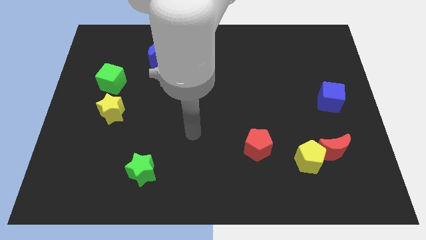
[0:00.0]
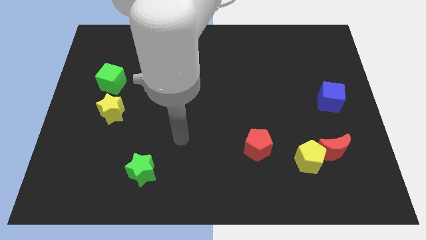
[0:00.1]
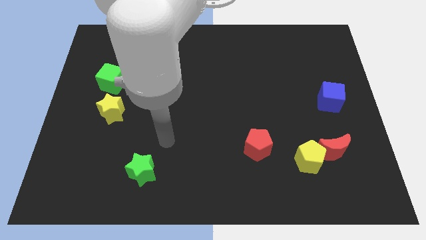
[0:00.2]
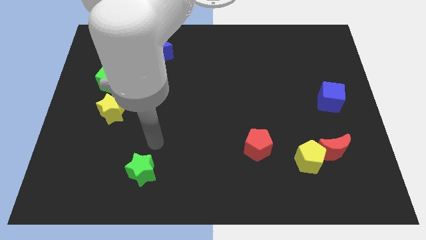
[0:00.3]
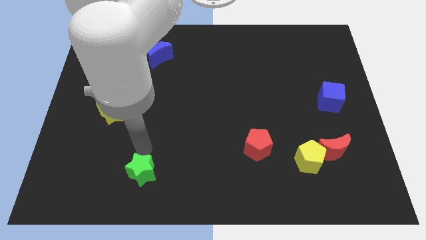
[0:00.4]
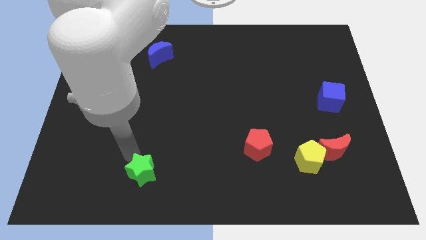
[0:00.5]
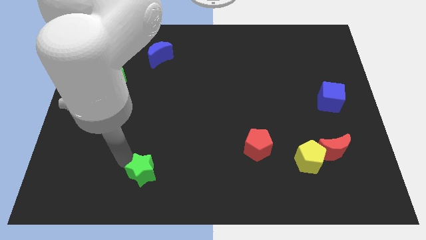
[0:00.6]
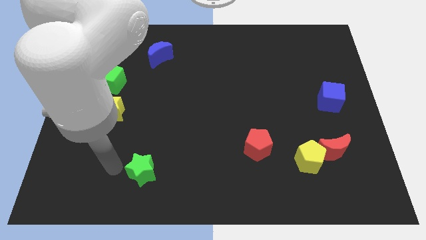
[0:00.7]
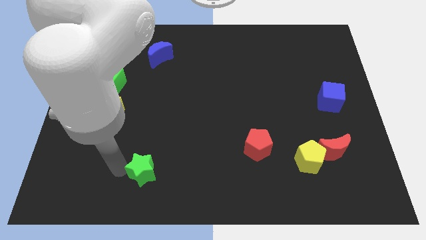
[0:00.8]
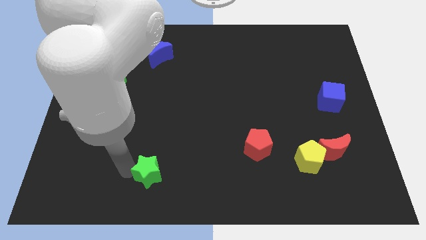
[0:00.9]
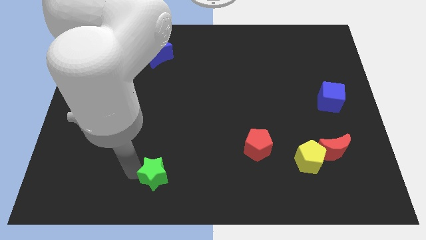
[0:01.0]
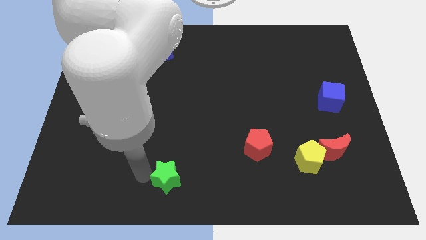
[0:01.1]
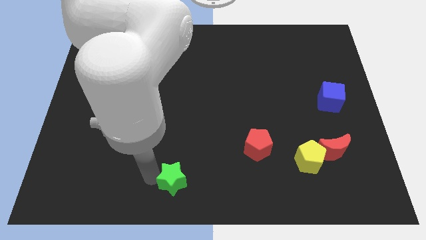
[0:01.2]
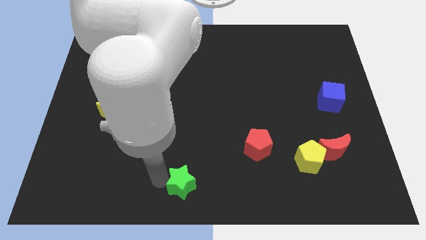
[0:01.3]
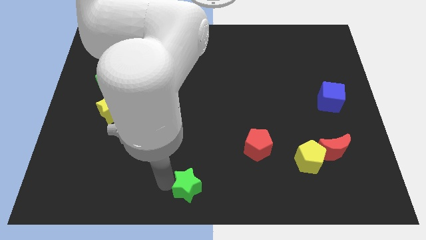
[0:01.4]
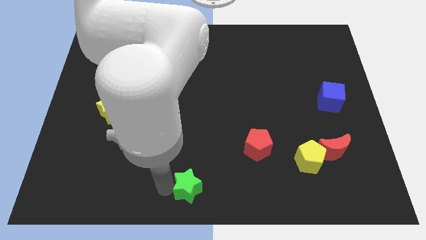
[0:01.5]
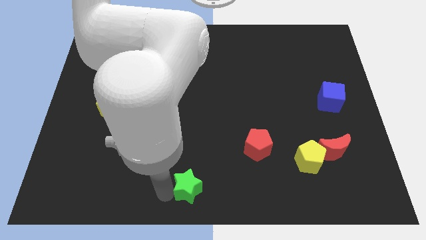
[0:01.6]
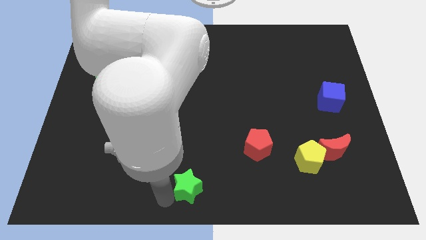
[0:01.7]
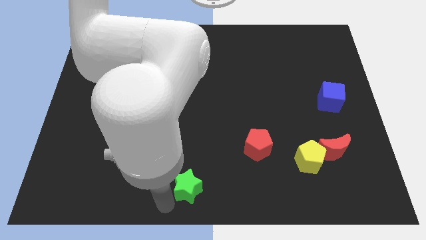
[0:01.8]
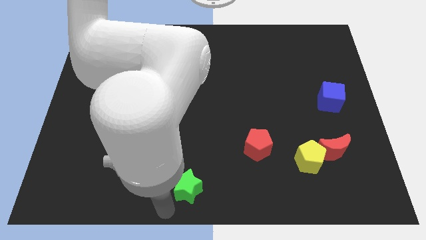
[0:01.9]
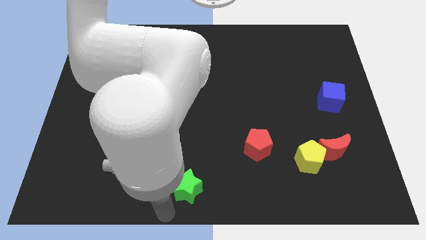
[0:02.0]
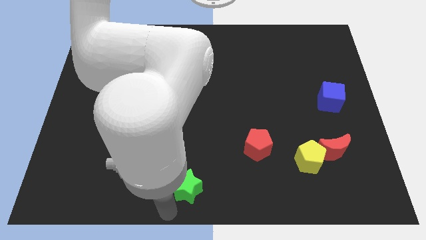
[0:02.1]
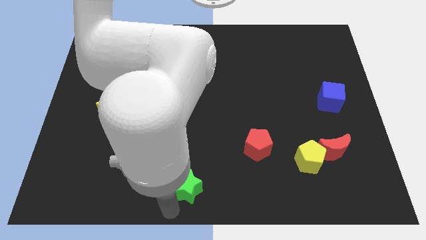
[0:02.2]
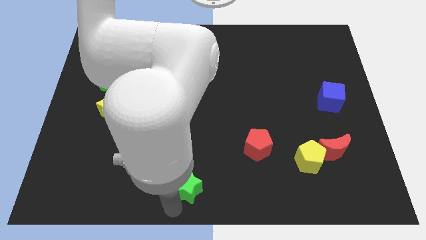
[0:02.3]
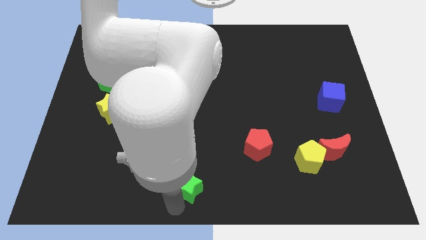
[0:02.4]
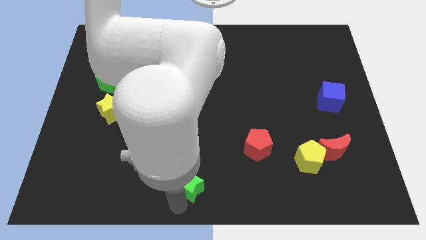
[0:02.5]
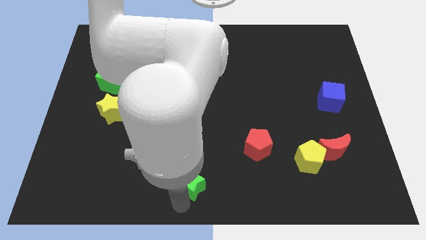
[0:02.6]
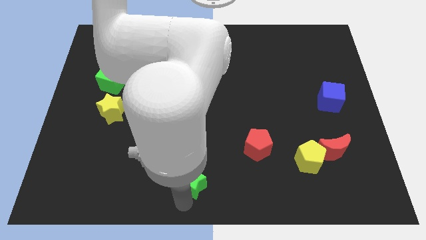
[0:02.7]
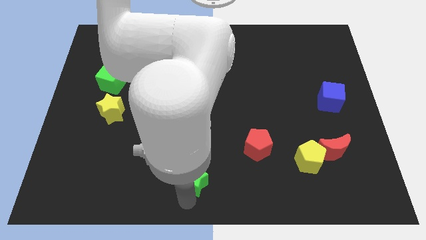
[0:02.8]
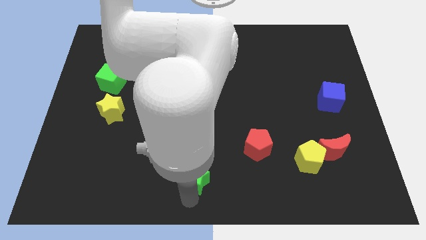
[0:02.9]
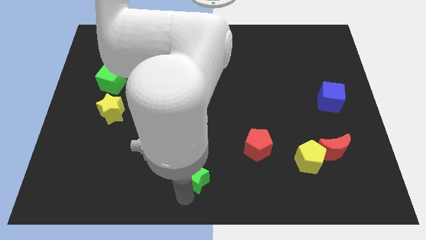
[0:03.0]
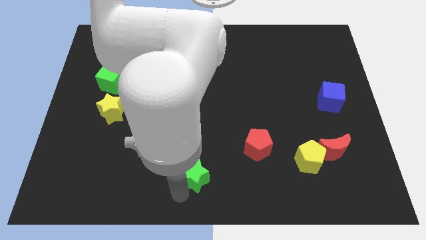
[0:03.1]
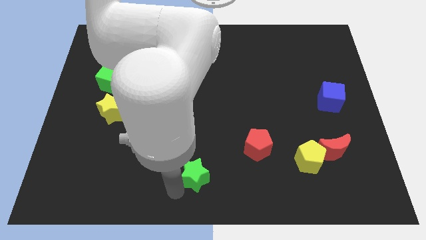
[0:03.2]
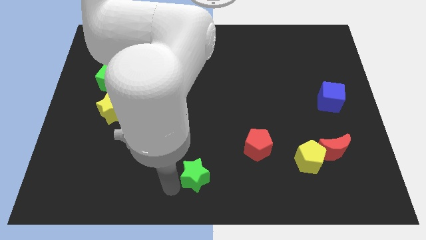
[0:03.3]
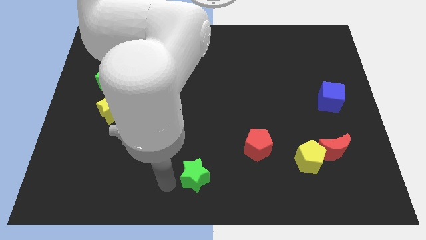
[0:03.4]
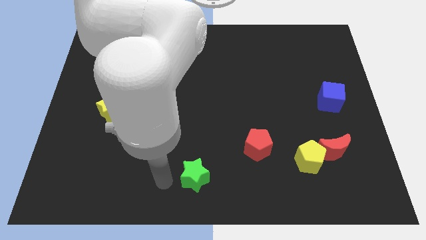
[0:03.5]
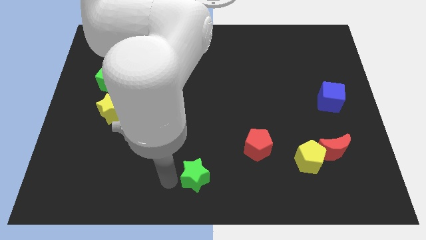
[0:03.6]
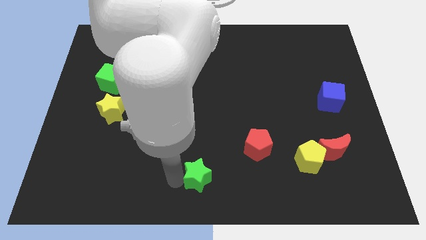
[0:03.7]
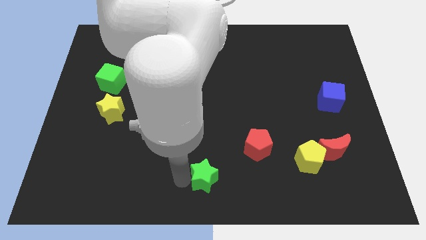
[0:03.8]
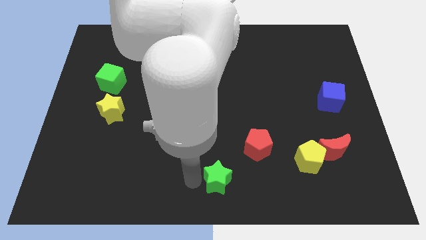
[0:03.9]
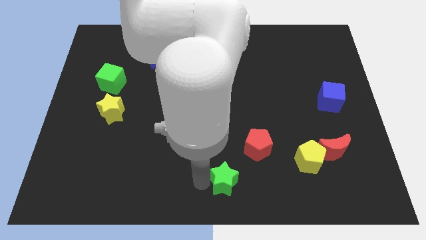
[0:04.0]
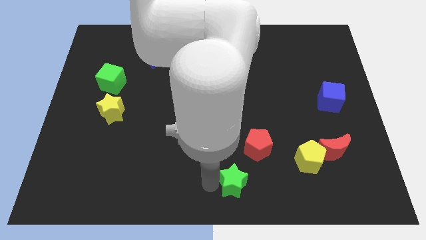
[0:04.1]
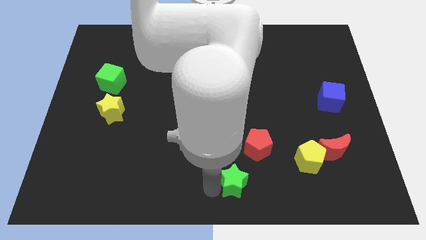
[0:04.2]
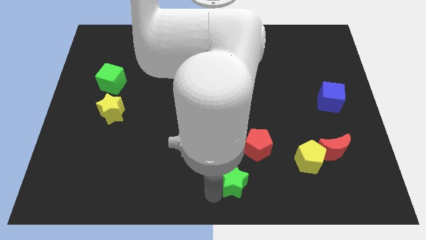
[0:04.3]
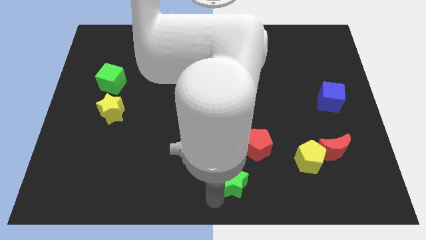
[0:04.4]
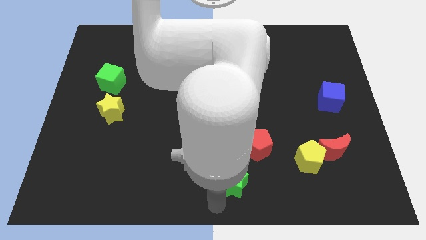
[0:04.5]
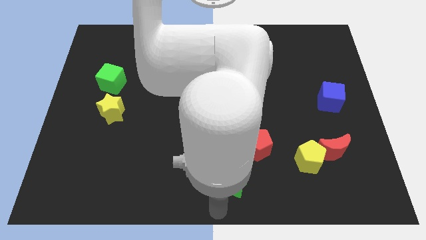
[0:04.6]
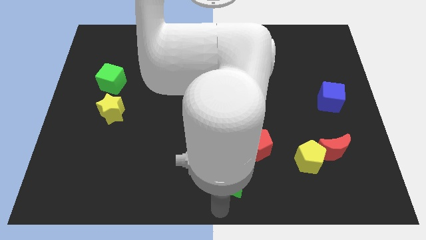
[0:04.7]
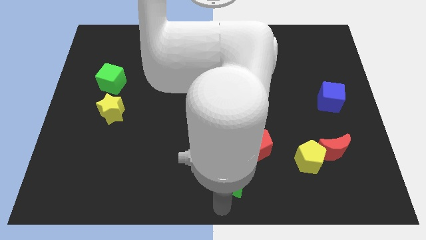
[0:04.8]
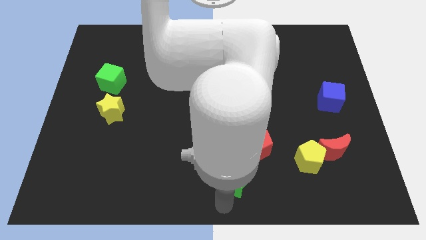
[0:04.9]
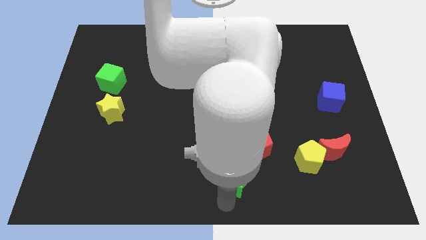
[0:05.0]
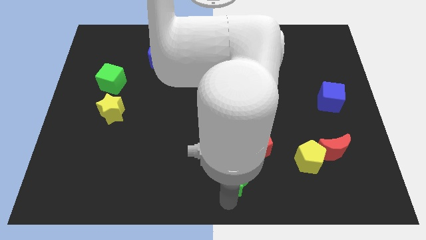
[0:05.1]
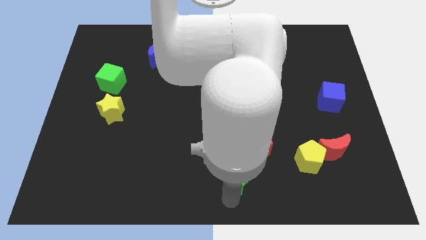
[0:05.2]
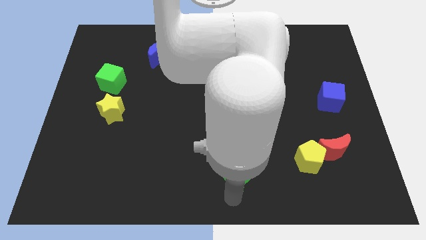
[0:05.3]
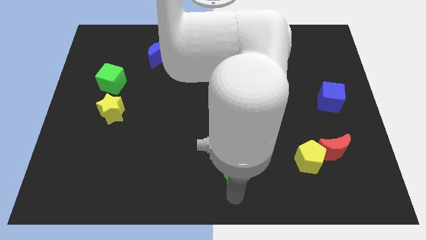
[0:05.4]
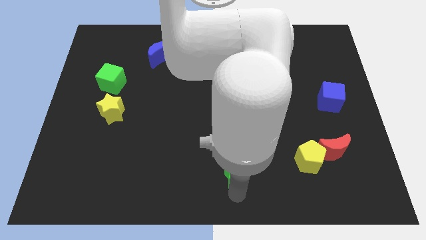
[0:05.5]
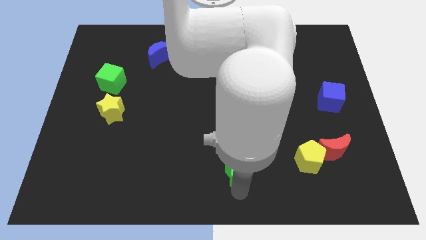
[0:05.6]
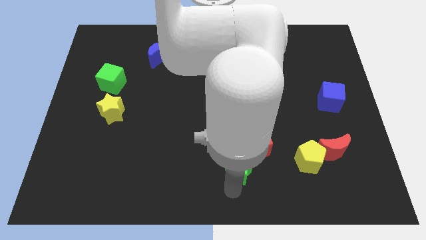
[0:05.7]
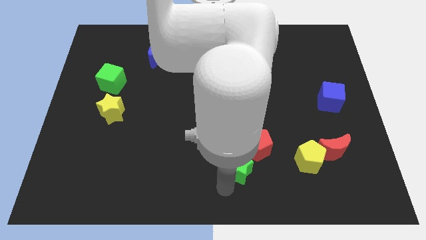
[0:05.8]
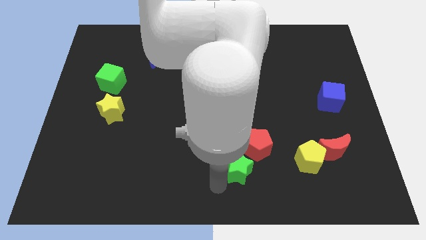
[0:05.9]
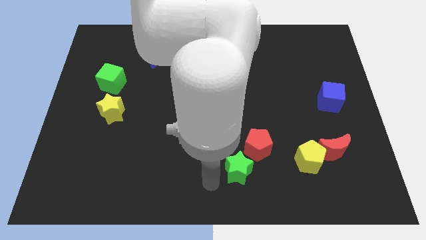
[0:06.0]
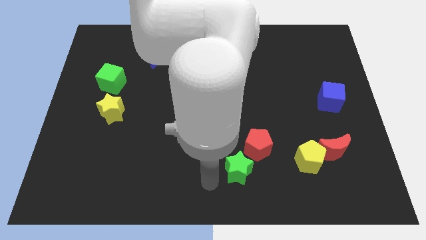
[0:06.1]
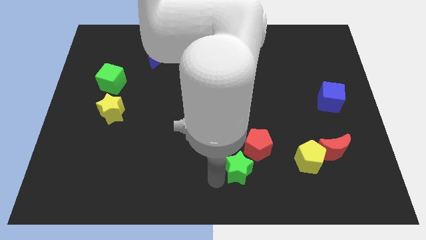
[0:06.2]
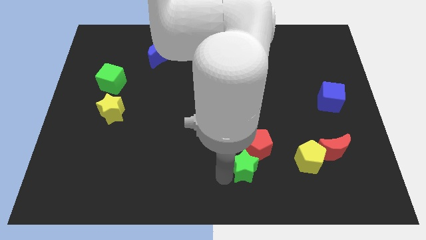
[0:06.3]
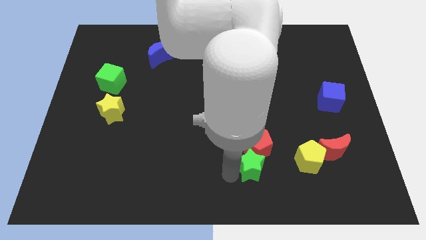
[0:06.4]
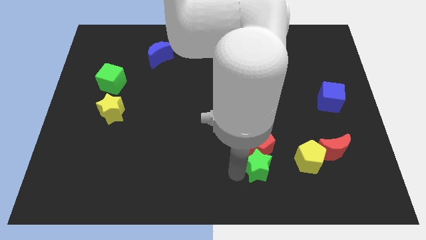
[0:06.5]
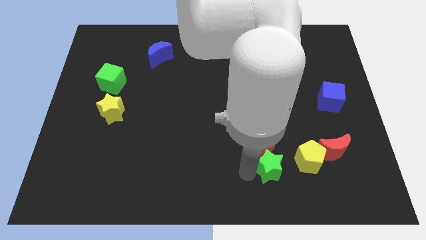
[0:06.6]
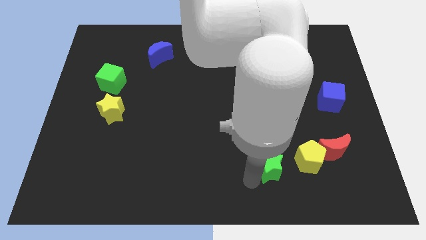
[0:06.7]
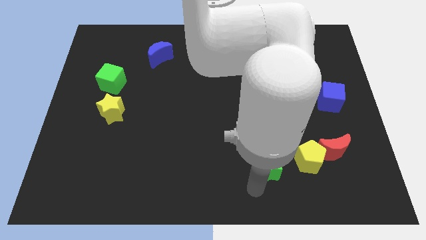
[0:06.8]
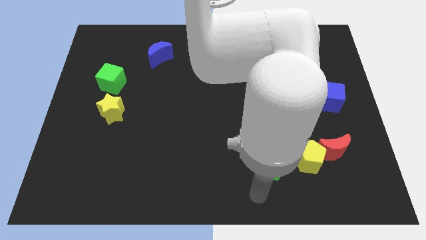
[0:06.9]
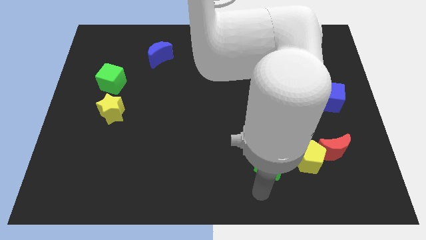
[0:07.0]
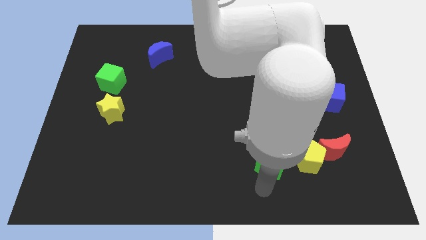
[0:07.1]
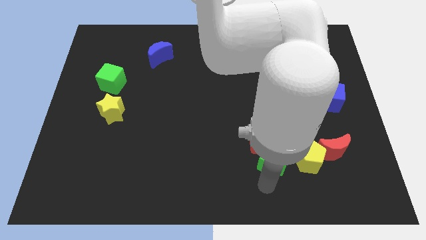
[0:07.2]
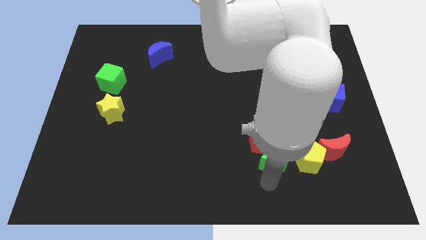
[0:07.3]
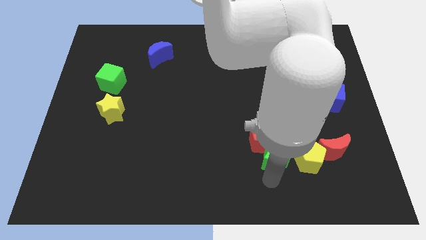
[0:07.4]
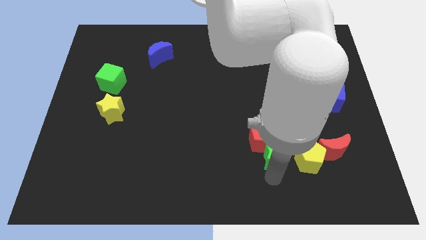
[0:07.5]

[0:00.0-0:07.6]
move the green star diagonally up and to the left of the yellow pentagon
